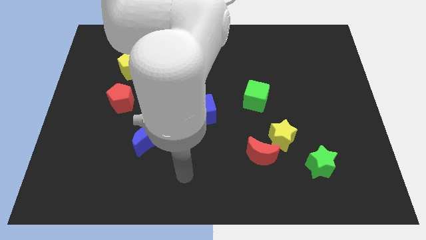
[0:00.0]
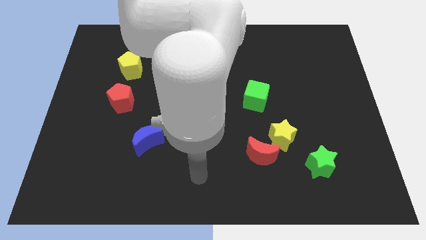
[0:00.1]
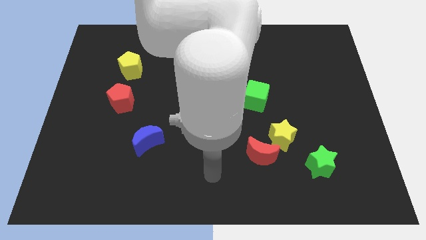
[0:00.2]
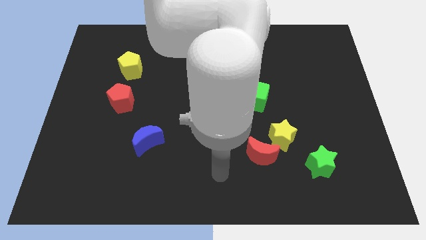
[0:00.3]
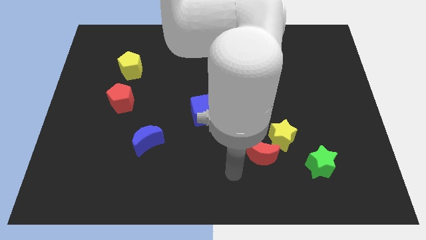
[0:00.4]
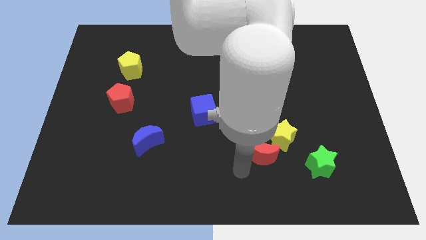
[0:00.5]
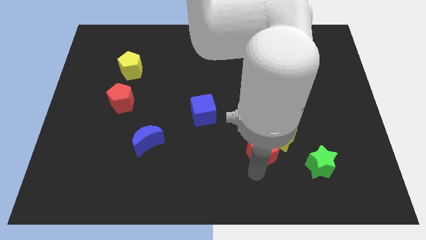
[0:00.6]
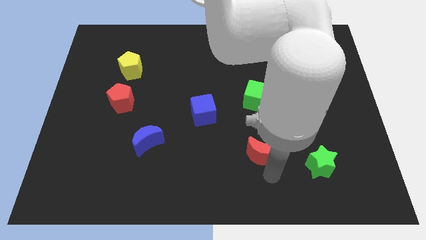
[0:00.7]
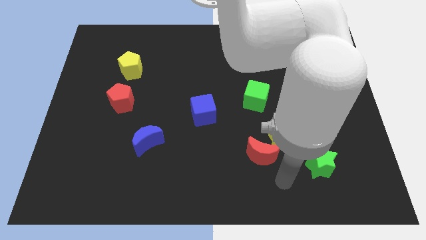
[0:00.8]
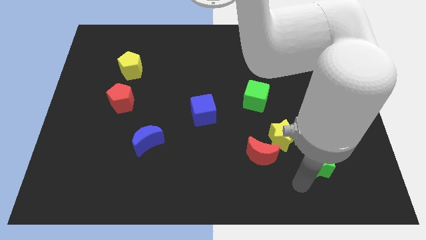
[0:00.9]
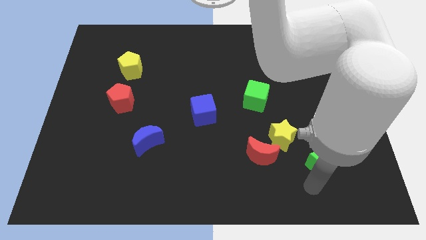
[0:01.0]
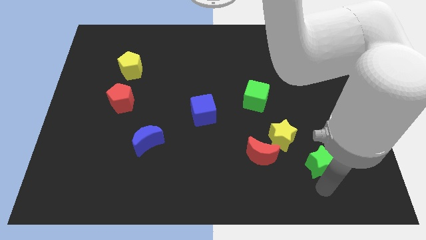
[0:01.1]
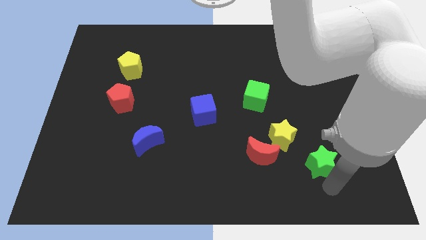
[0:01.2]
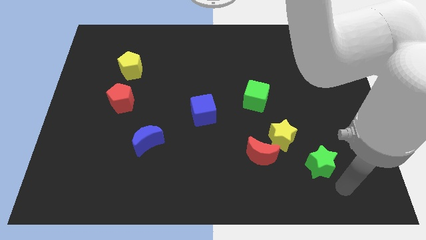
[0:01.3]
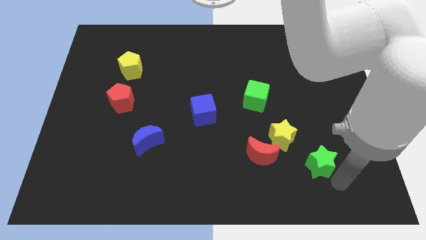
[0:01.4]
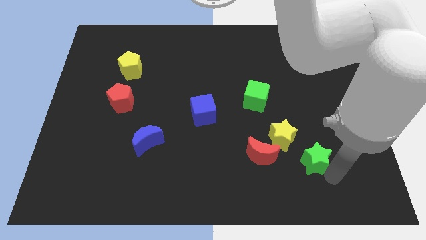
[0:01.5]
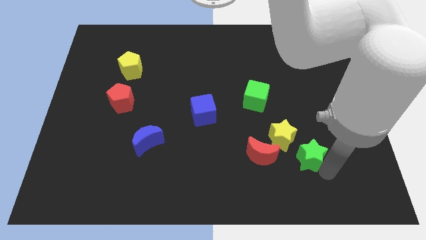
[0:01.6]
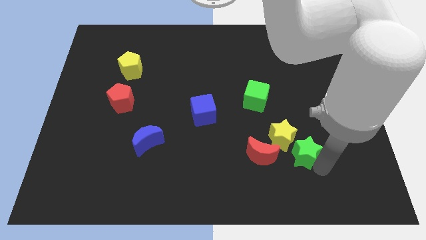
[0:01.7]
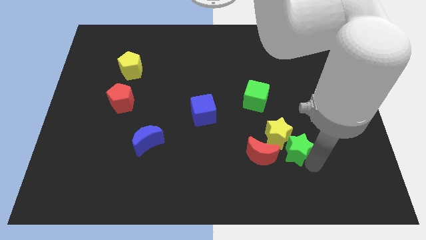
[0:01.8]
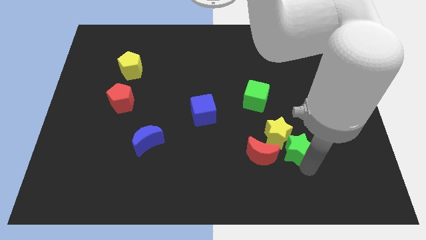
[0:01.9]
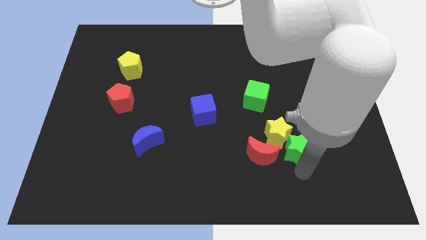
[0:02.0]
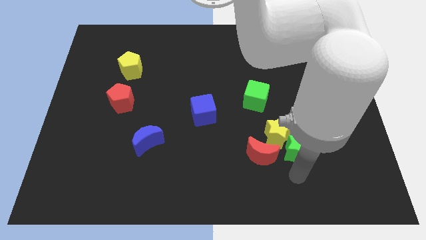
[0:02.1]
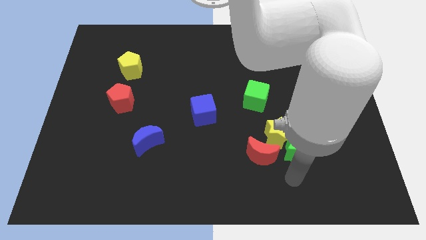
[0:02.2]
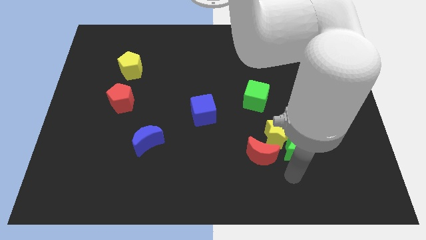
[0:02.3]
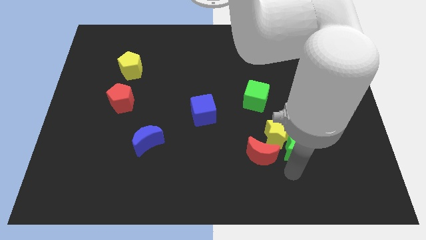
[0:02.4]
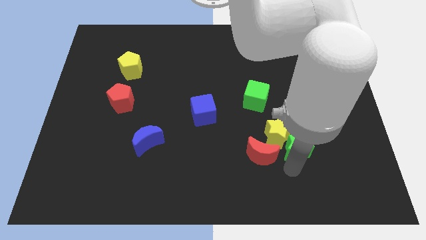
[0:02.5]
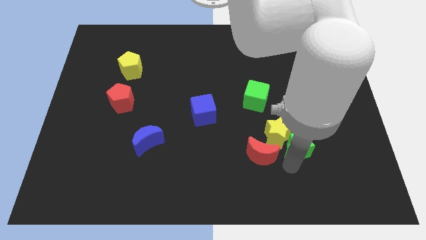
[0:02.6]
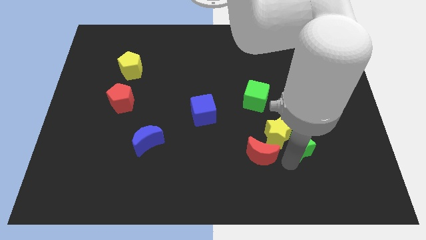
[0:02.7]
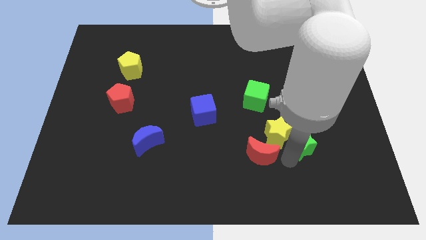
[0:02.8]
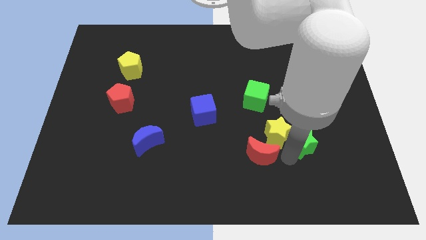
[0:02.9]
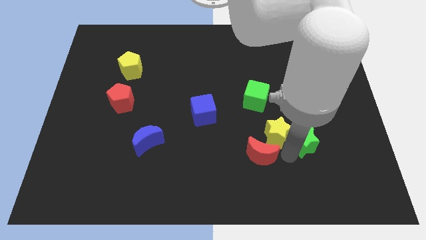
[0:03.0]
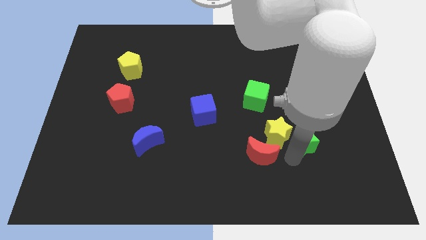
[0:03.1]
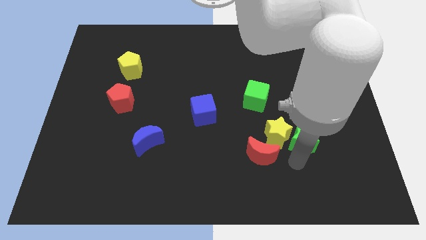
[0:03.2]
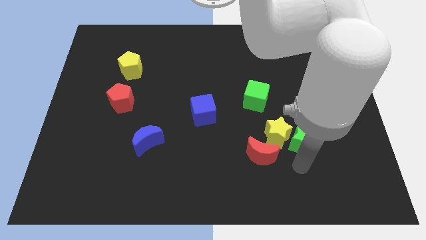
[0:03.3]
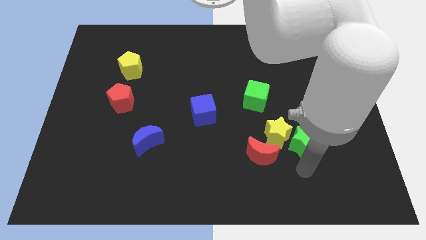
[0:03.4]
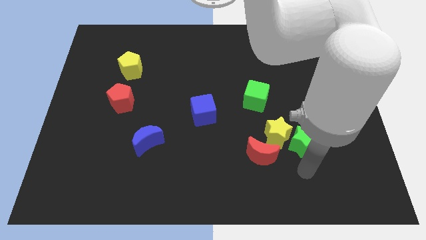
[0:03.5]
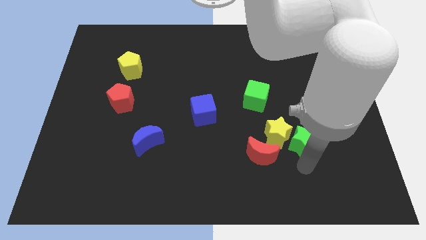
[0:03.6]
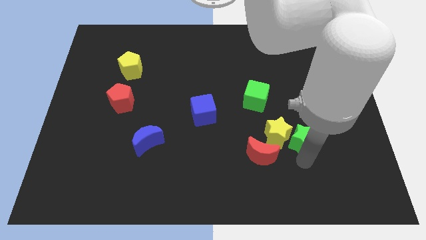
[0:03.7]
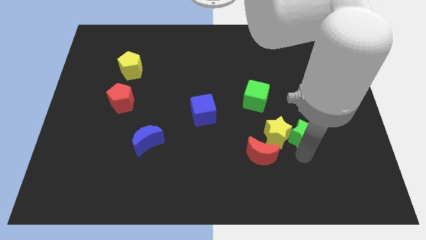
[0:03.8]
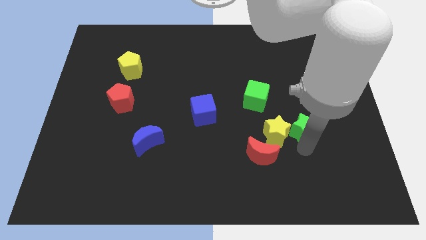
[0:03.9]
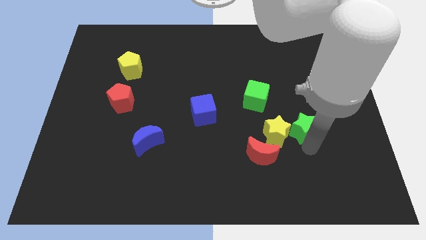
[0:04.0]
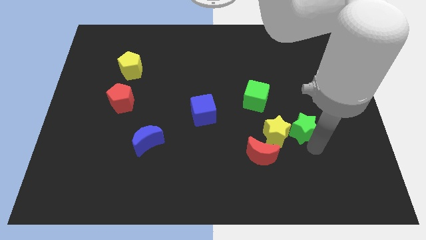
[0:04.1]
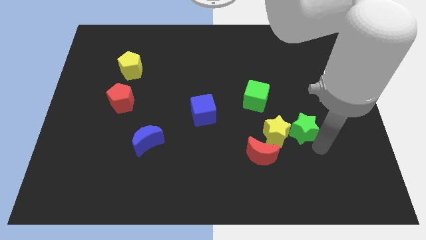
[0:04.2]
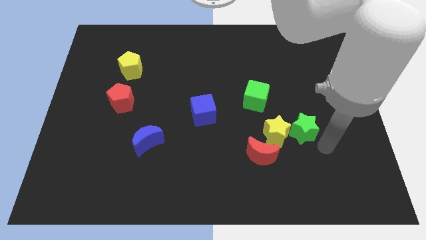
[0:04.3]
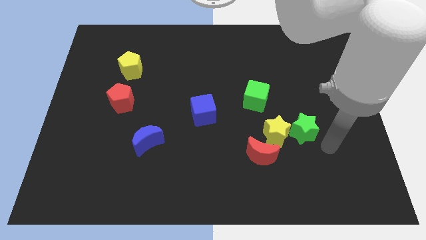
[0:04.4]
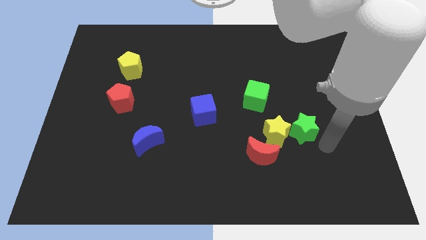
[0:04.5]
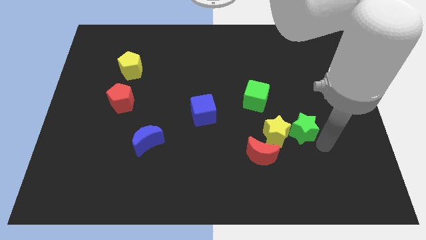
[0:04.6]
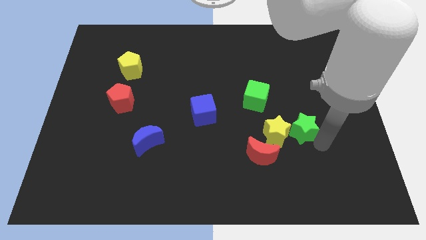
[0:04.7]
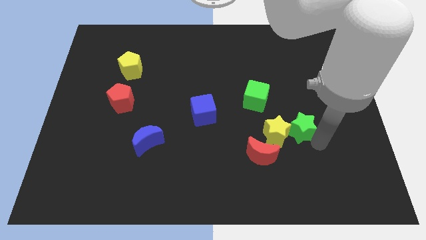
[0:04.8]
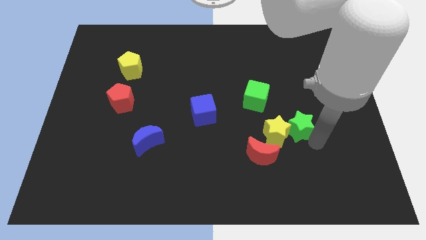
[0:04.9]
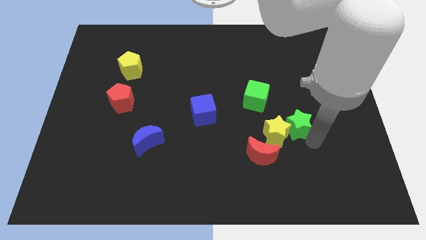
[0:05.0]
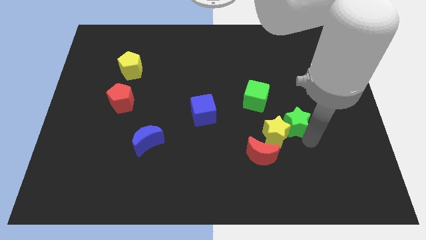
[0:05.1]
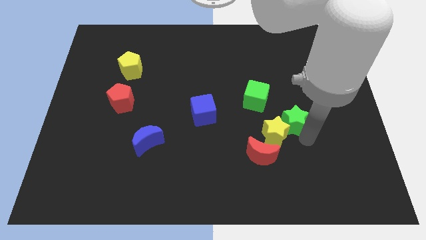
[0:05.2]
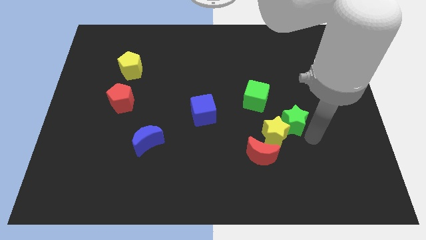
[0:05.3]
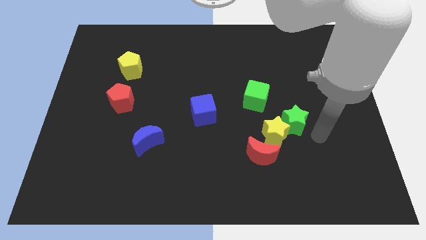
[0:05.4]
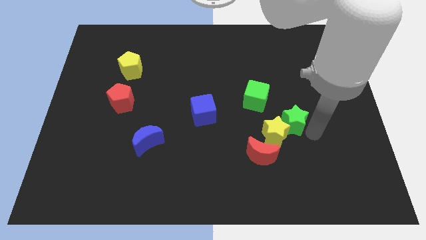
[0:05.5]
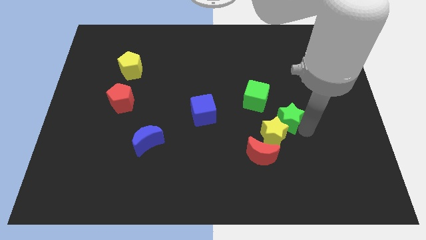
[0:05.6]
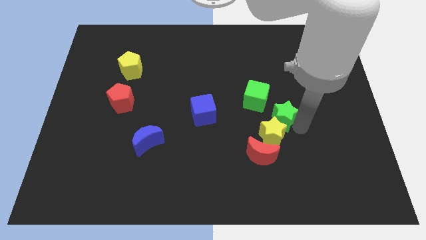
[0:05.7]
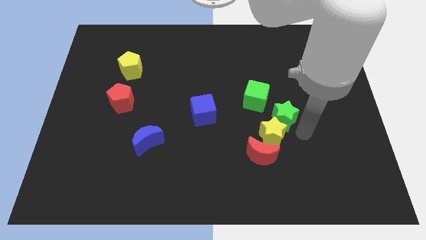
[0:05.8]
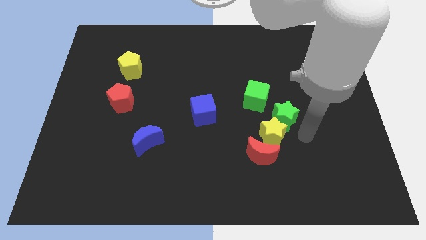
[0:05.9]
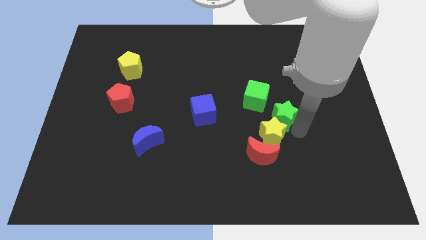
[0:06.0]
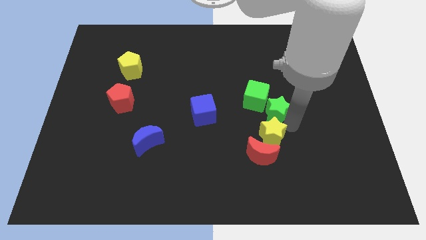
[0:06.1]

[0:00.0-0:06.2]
push the green star to the green cube

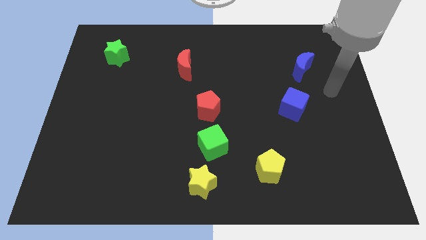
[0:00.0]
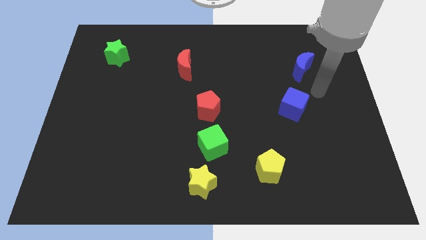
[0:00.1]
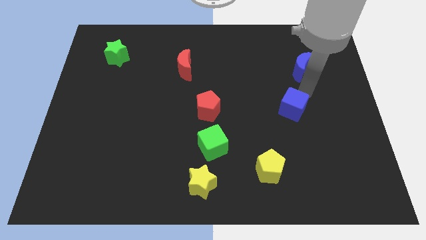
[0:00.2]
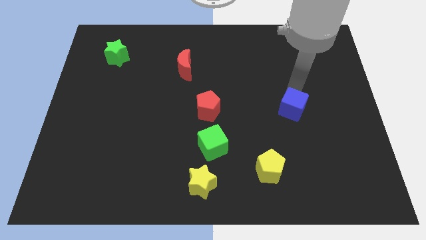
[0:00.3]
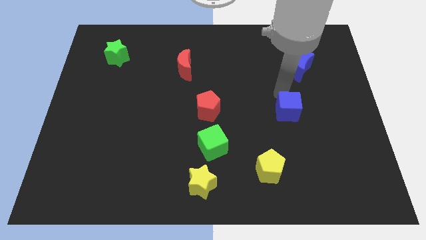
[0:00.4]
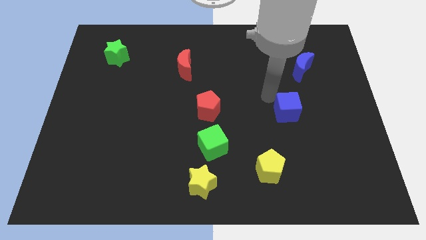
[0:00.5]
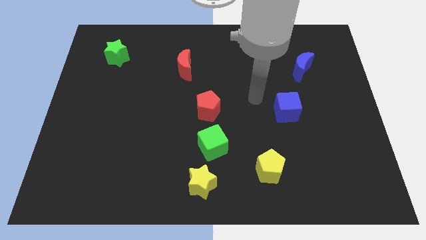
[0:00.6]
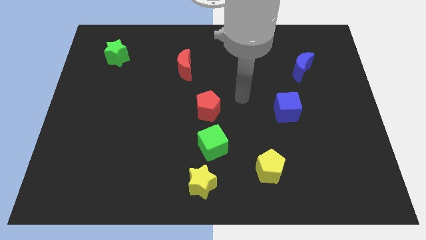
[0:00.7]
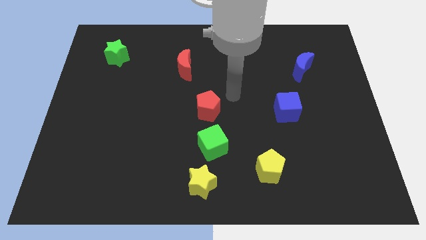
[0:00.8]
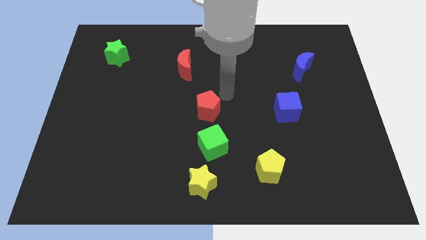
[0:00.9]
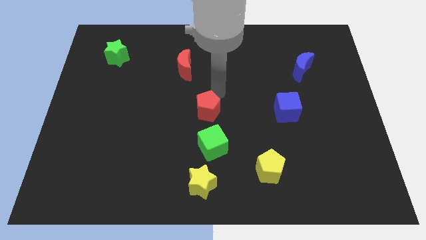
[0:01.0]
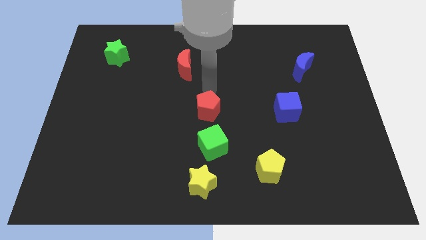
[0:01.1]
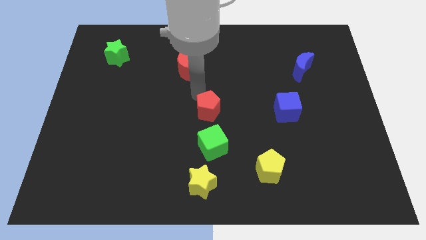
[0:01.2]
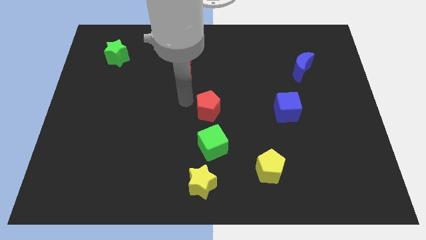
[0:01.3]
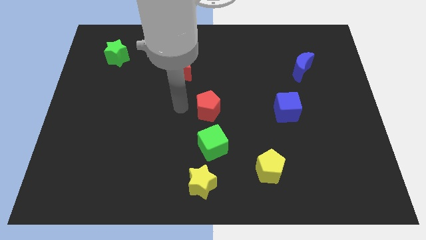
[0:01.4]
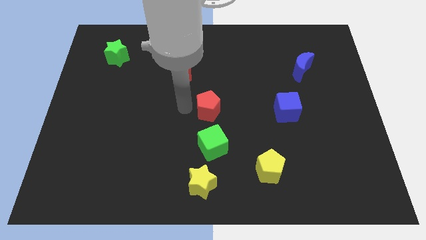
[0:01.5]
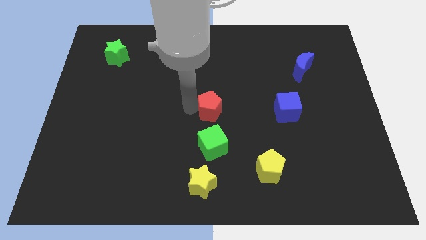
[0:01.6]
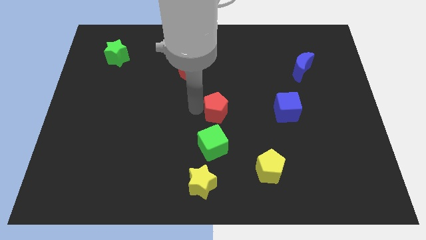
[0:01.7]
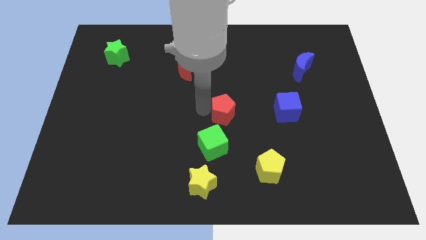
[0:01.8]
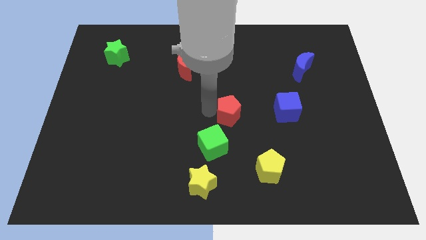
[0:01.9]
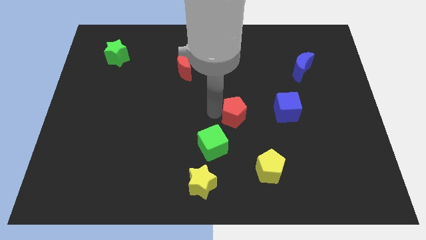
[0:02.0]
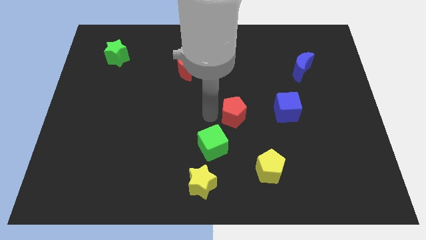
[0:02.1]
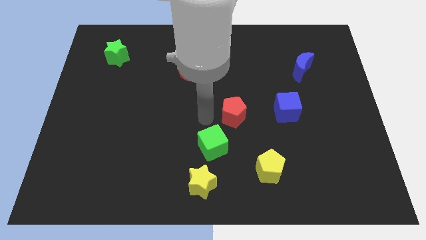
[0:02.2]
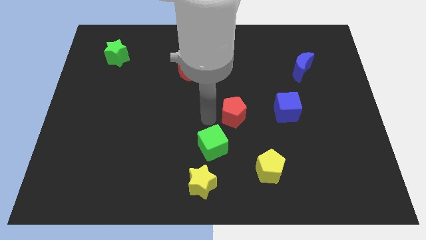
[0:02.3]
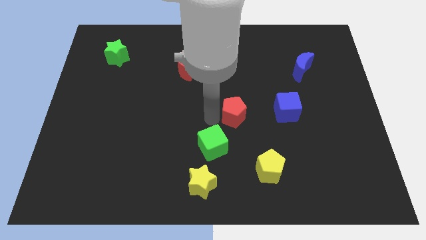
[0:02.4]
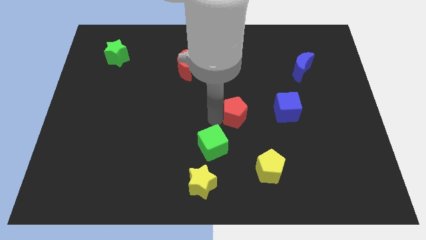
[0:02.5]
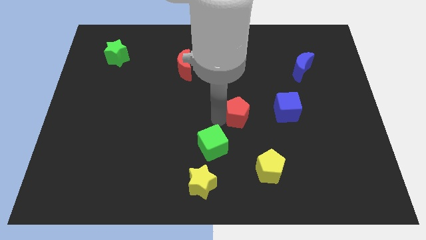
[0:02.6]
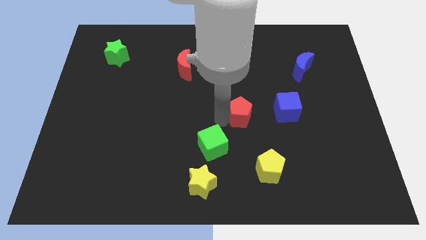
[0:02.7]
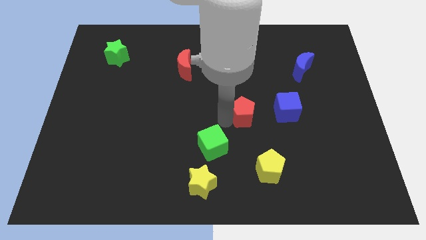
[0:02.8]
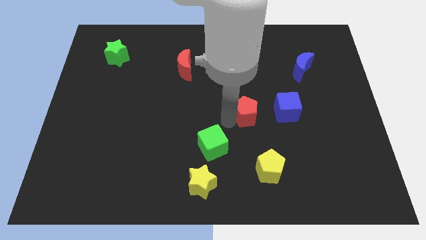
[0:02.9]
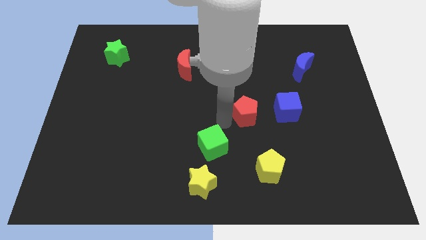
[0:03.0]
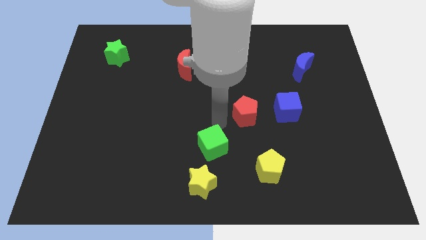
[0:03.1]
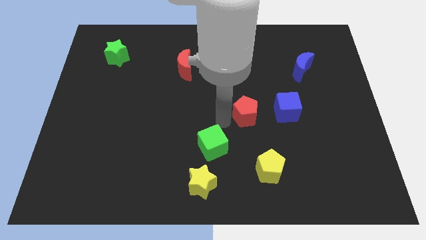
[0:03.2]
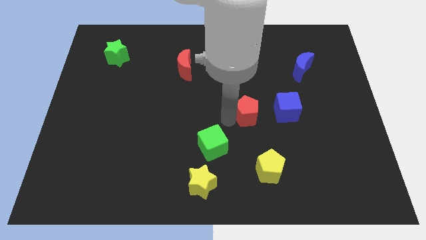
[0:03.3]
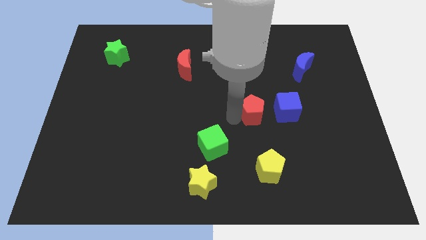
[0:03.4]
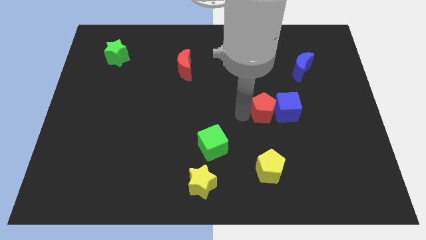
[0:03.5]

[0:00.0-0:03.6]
push the red pentagon next to the blue cube
